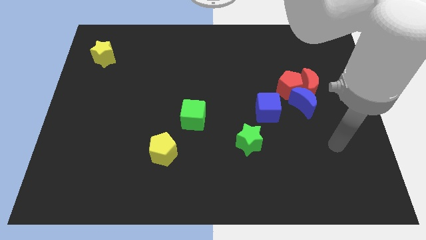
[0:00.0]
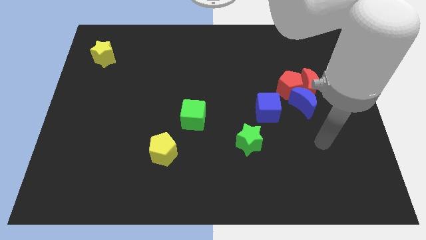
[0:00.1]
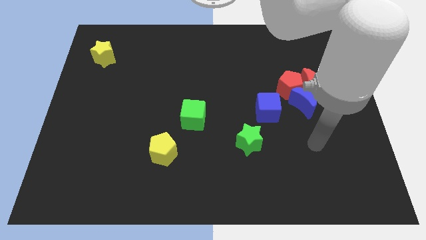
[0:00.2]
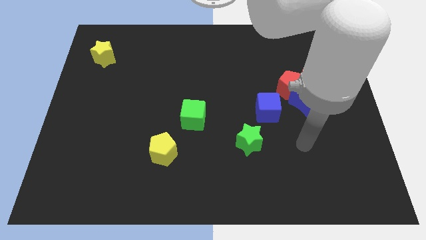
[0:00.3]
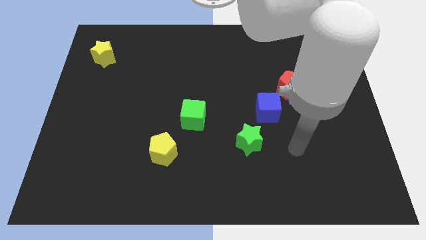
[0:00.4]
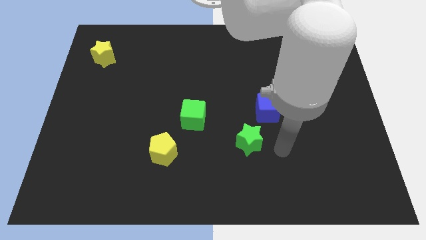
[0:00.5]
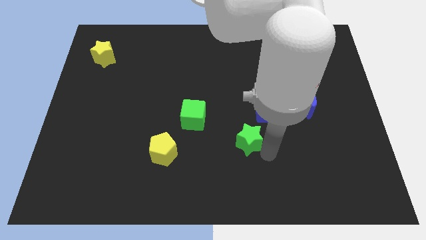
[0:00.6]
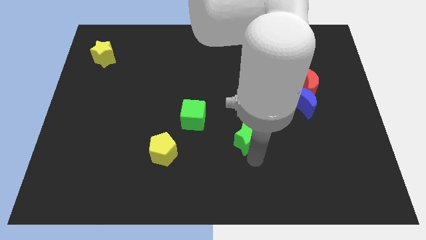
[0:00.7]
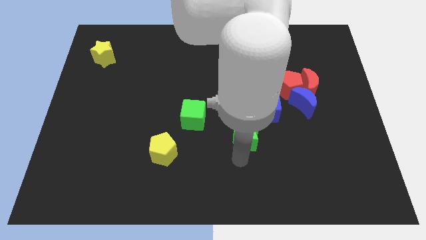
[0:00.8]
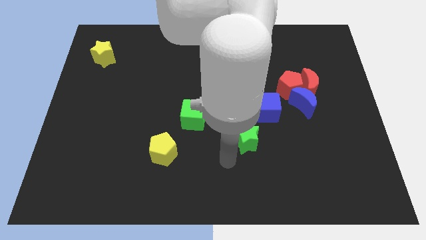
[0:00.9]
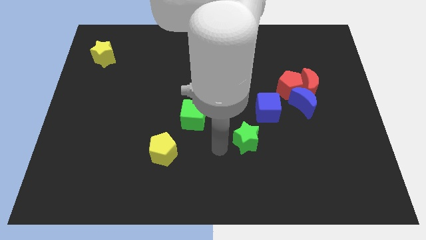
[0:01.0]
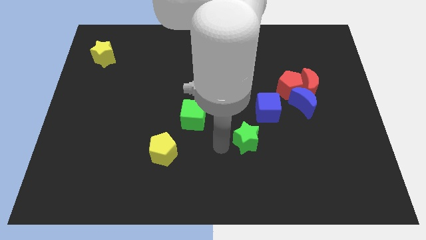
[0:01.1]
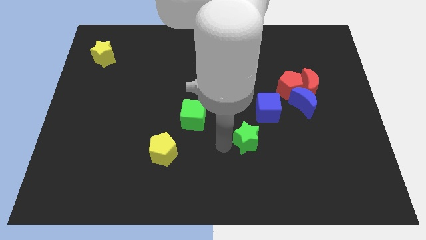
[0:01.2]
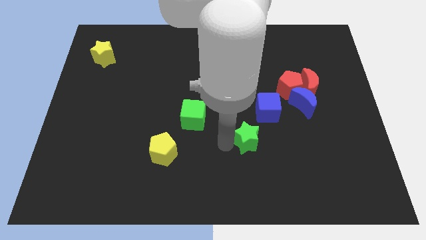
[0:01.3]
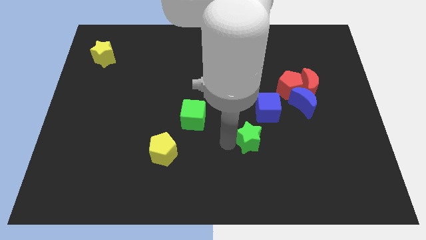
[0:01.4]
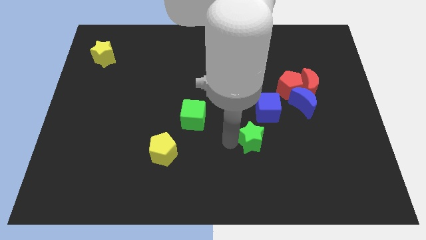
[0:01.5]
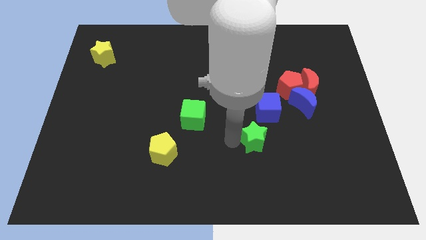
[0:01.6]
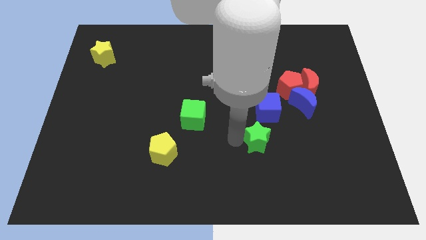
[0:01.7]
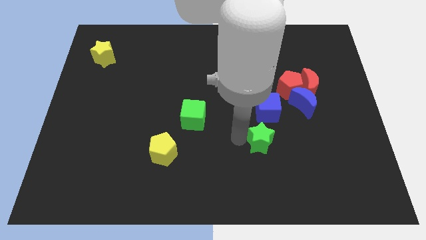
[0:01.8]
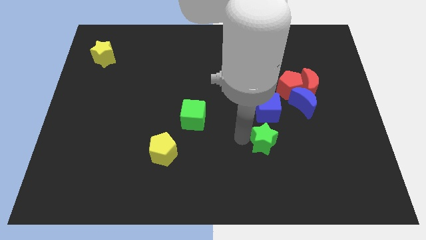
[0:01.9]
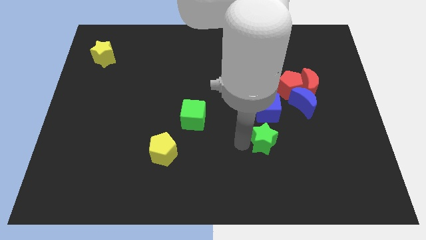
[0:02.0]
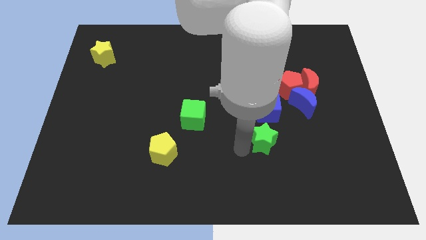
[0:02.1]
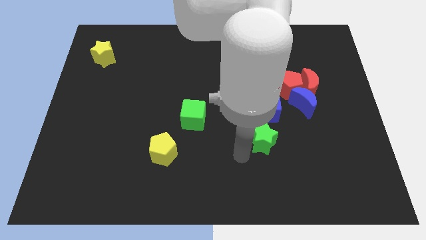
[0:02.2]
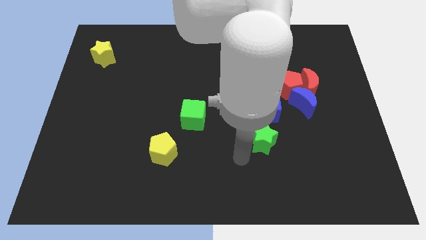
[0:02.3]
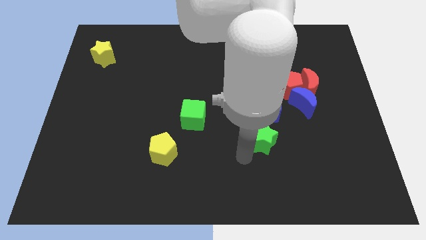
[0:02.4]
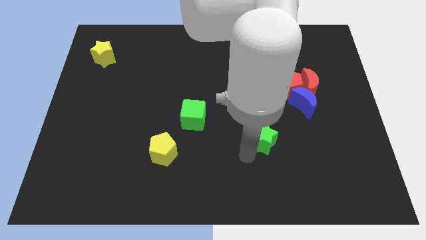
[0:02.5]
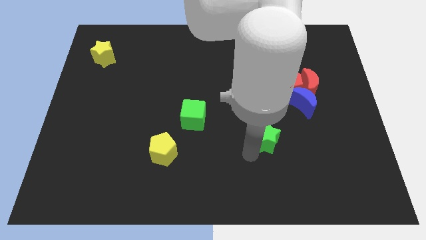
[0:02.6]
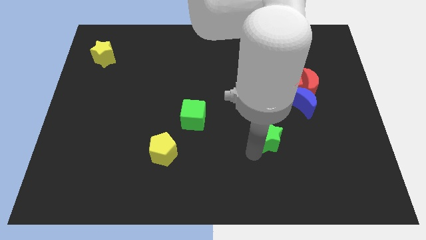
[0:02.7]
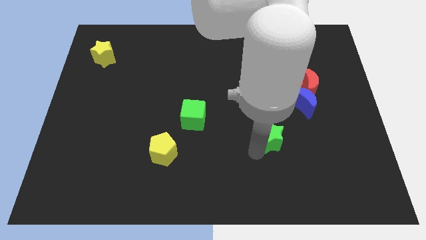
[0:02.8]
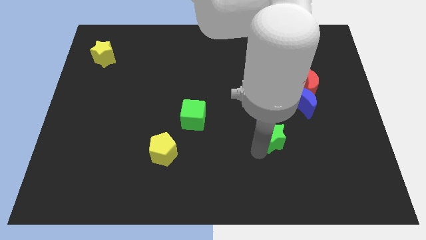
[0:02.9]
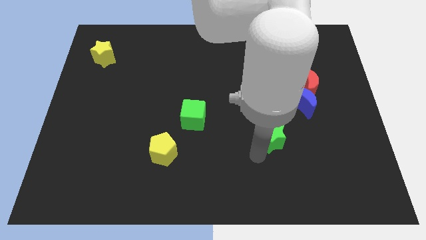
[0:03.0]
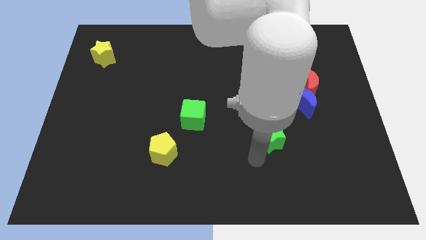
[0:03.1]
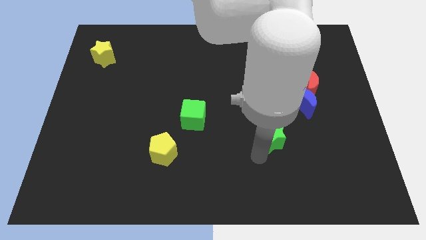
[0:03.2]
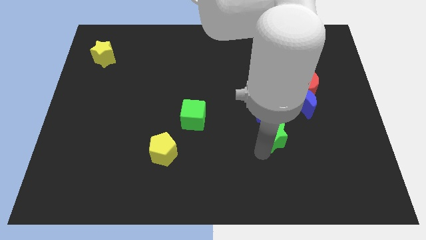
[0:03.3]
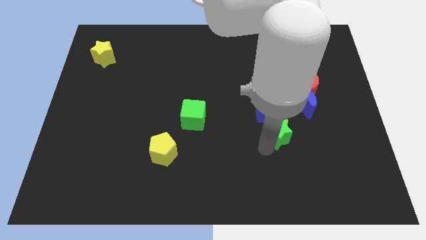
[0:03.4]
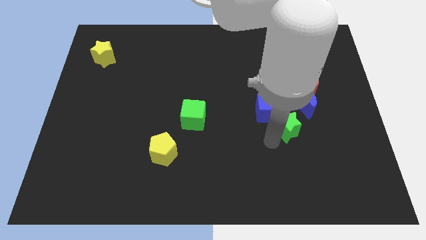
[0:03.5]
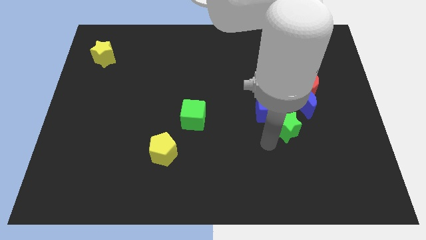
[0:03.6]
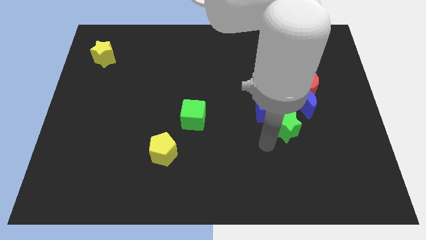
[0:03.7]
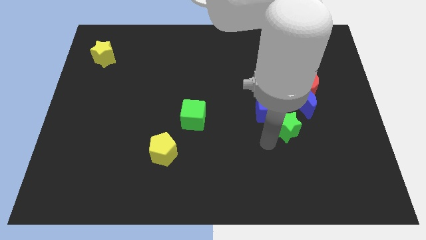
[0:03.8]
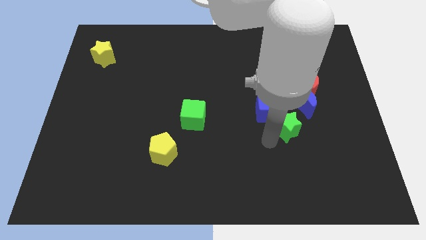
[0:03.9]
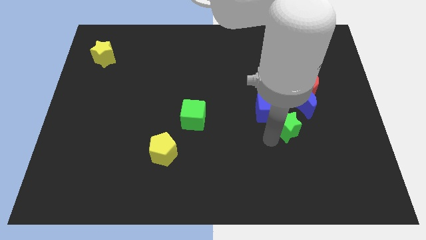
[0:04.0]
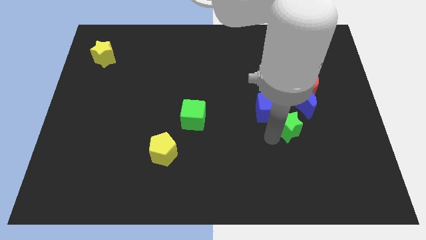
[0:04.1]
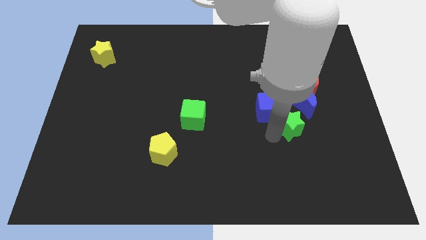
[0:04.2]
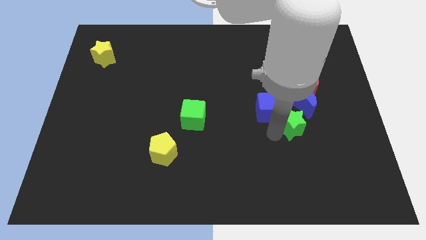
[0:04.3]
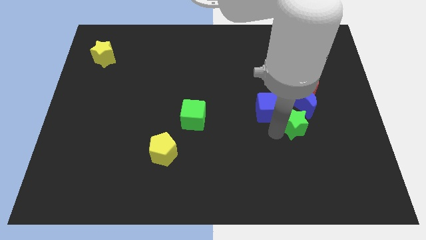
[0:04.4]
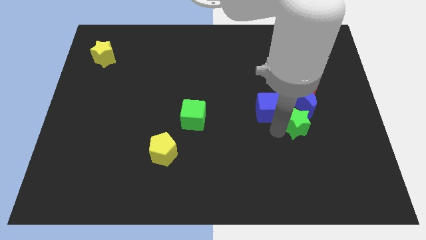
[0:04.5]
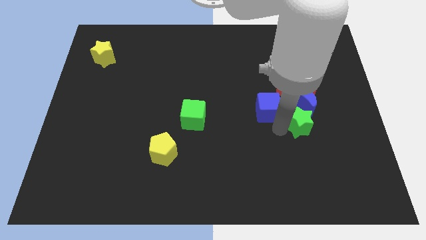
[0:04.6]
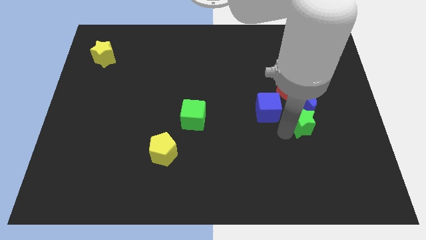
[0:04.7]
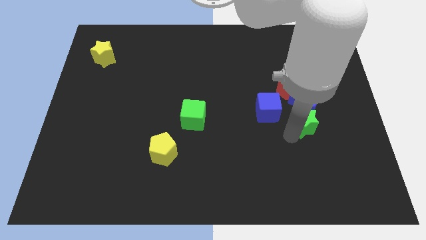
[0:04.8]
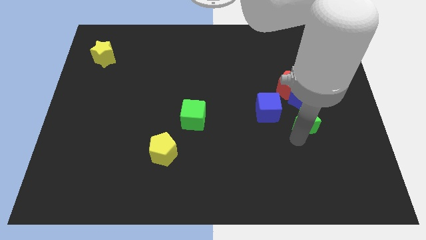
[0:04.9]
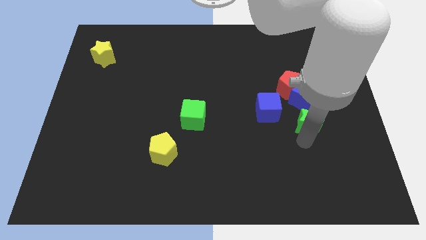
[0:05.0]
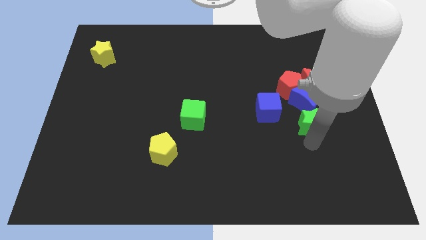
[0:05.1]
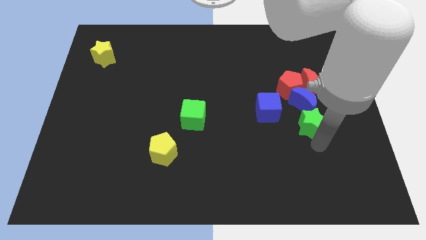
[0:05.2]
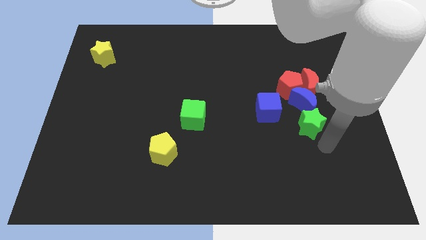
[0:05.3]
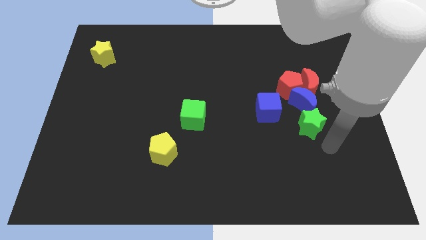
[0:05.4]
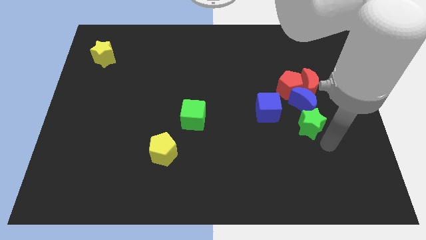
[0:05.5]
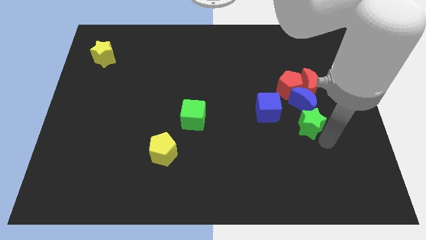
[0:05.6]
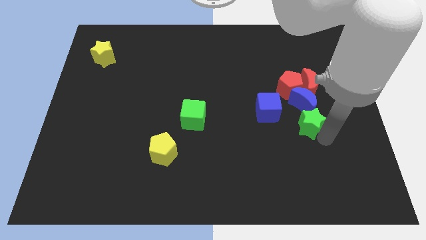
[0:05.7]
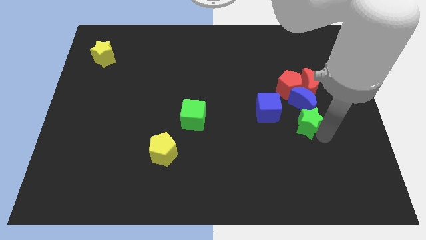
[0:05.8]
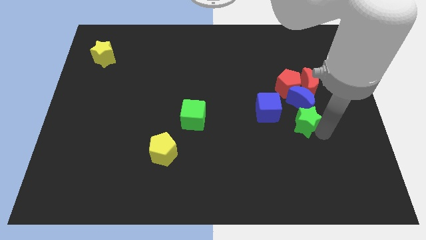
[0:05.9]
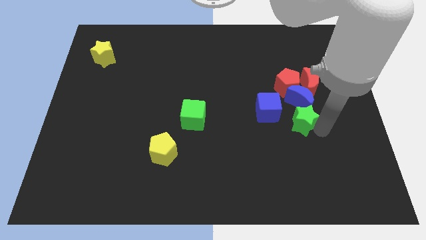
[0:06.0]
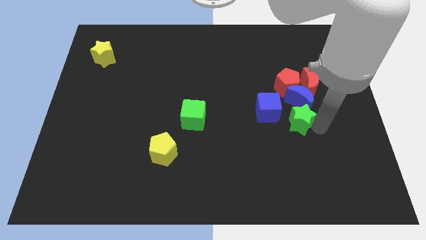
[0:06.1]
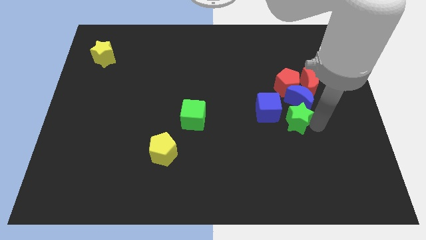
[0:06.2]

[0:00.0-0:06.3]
push the green star diagonally down and to the left of the red moon
